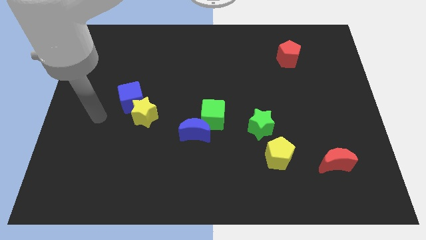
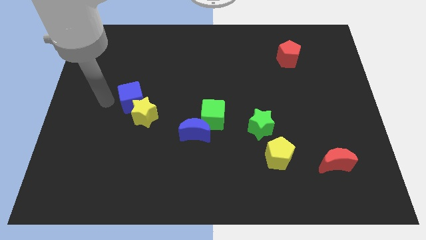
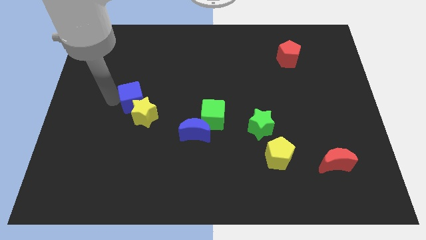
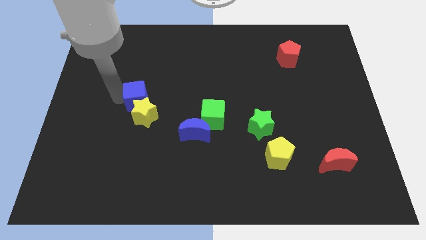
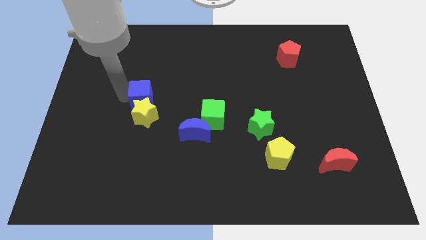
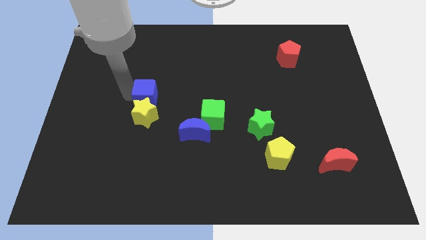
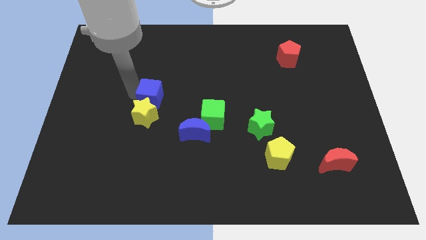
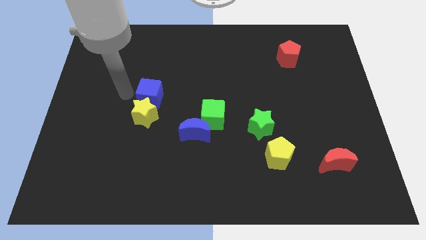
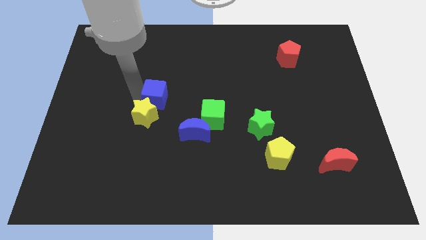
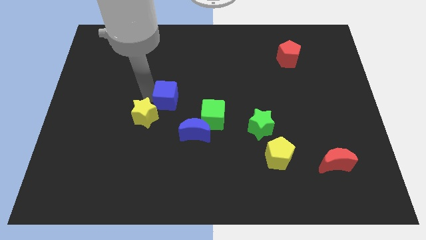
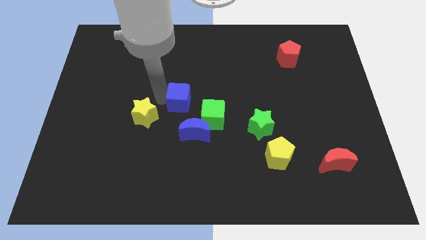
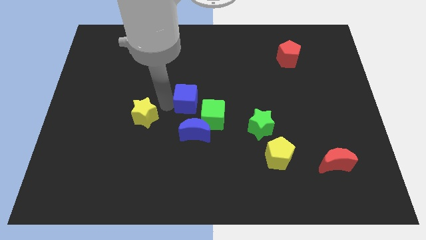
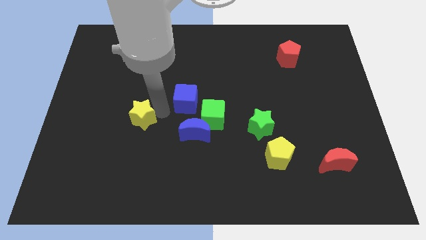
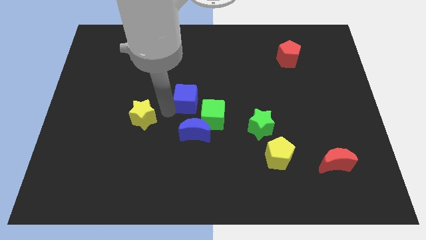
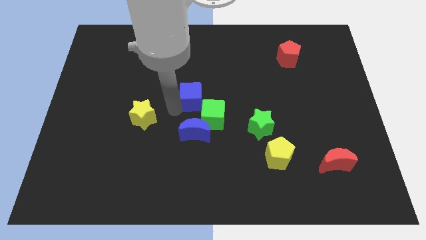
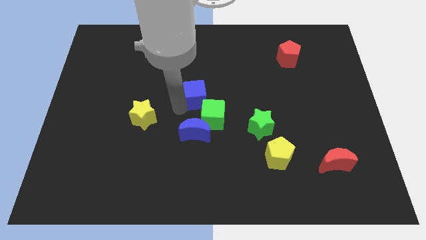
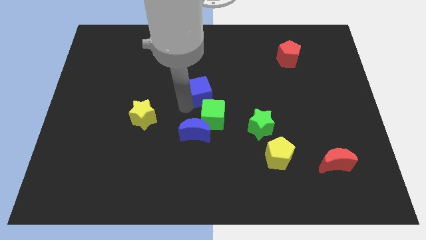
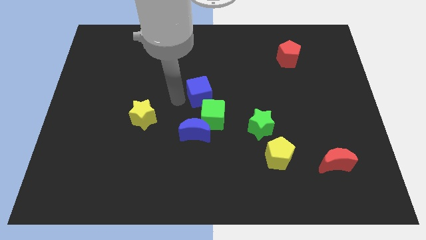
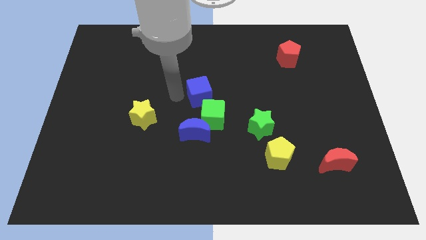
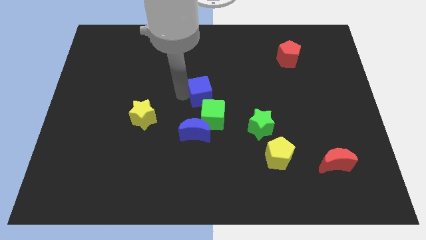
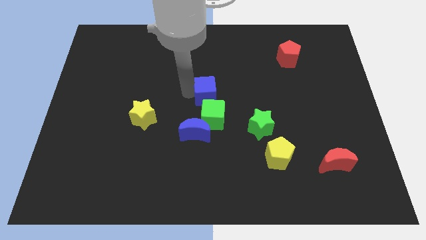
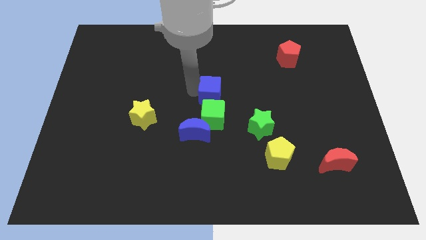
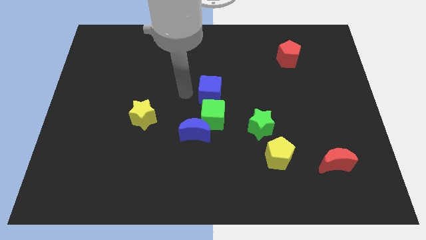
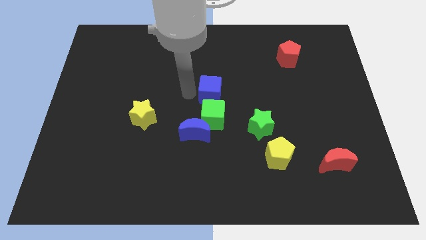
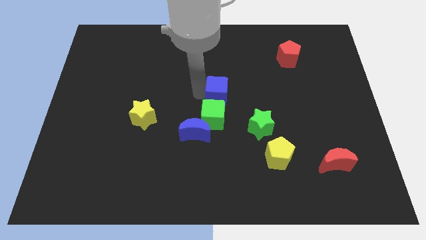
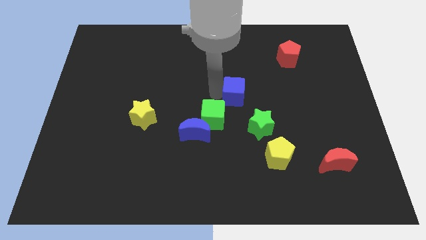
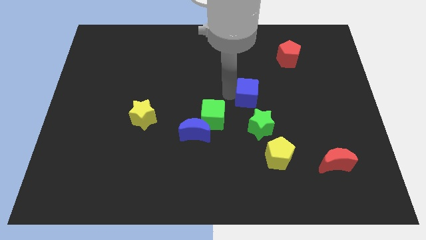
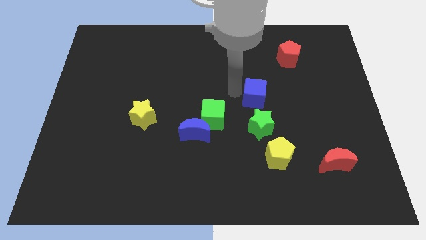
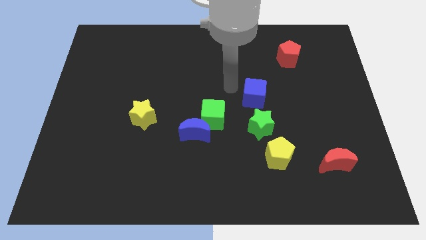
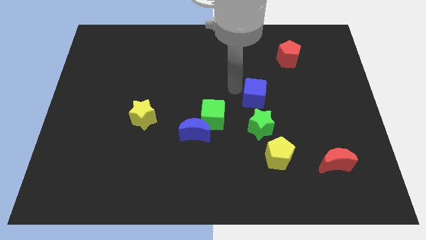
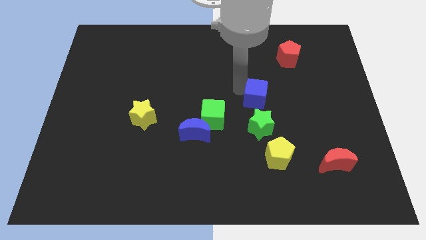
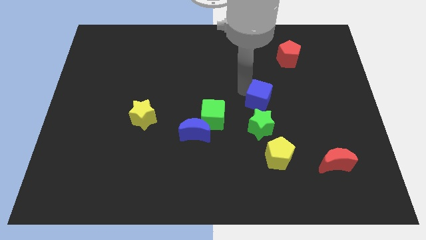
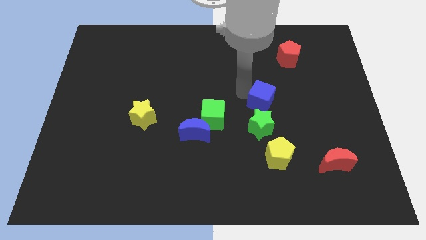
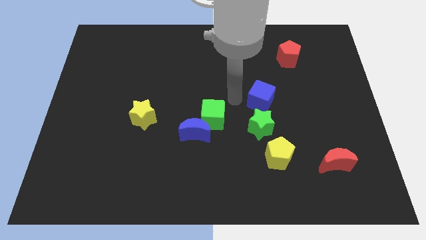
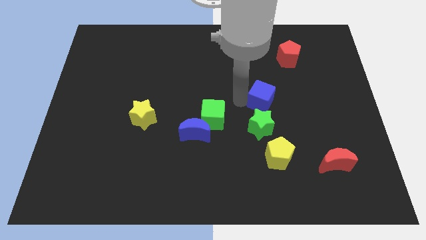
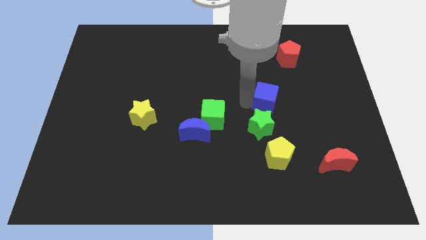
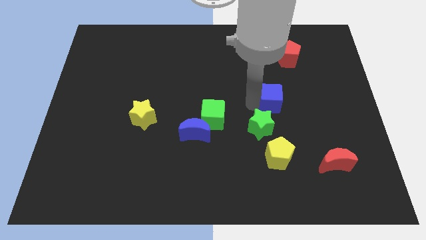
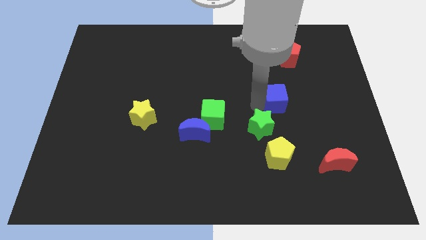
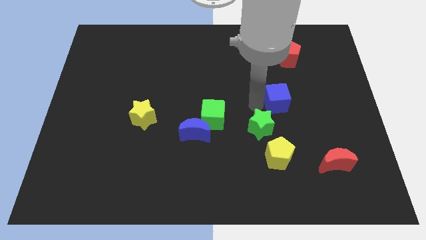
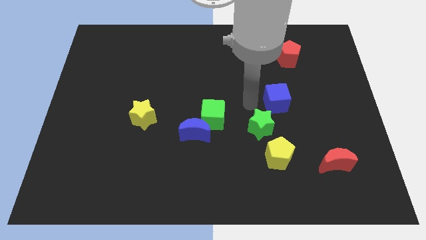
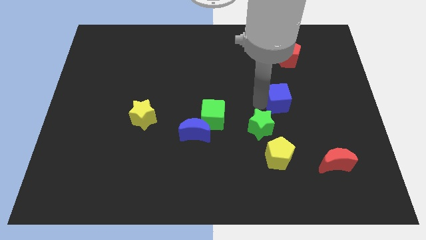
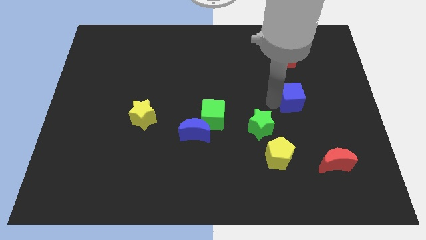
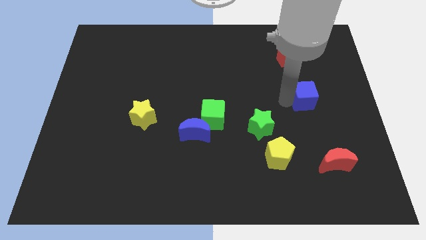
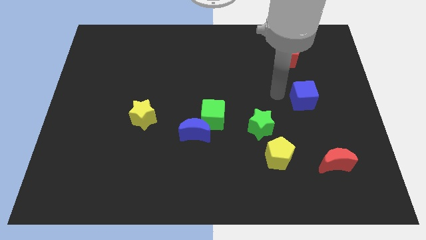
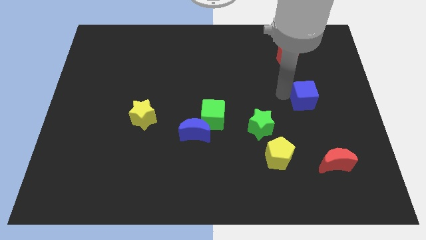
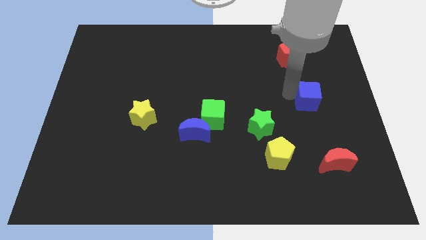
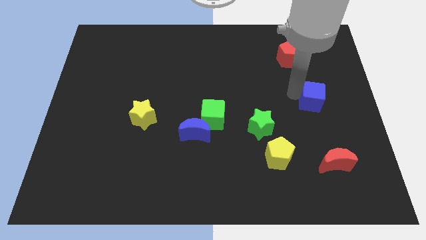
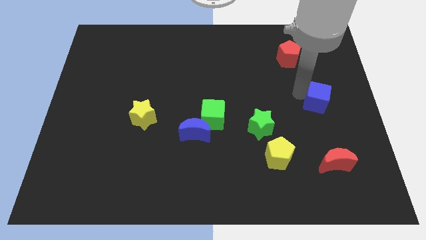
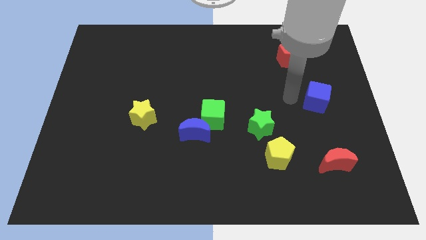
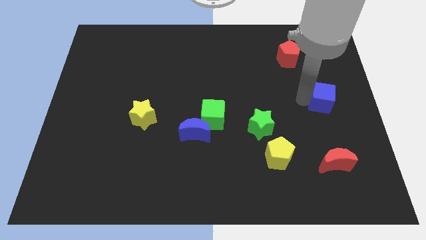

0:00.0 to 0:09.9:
slide the blue cube to the right side

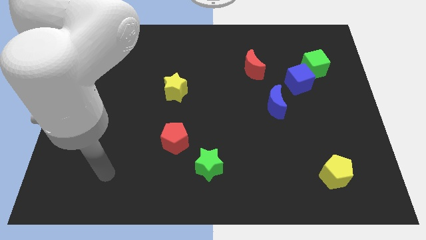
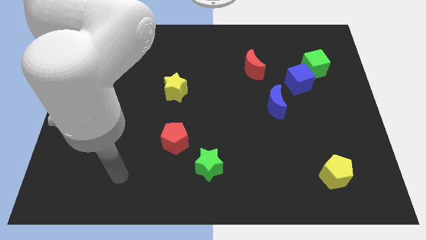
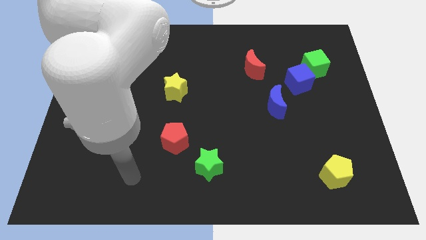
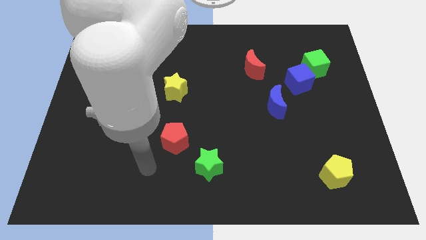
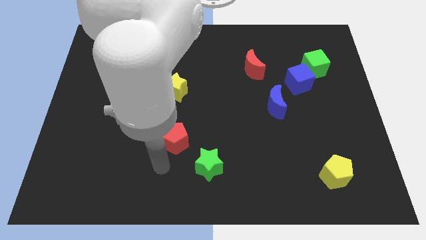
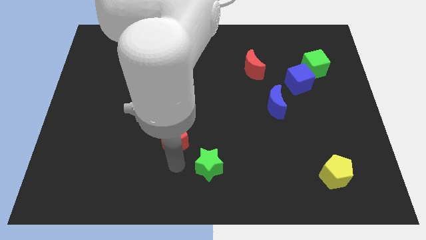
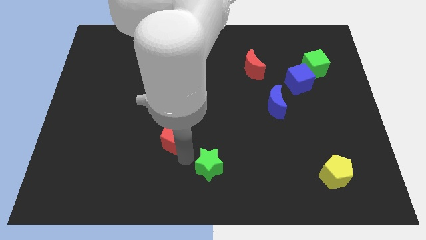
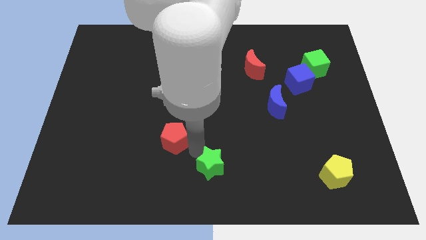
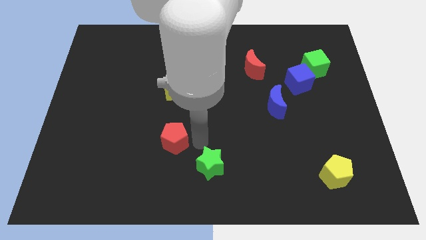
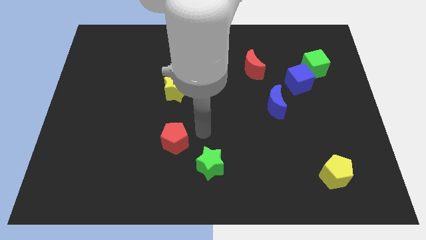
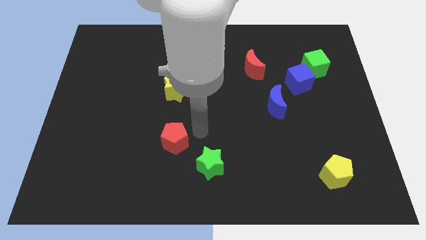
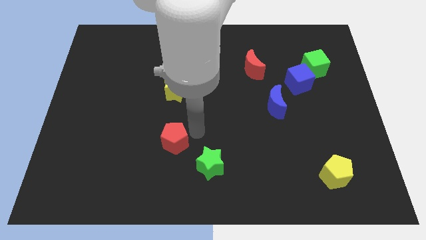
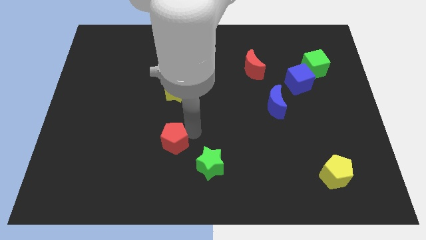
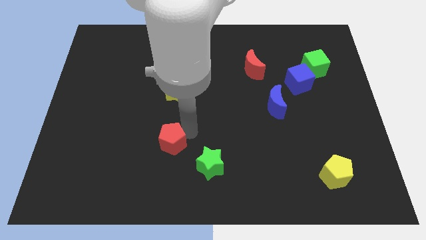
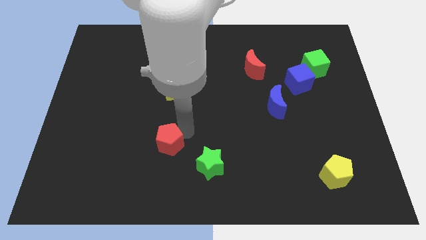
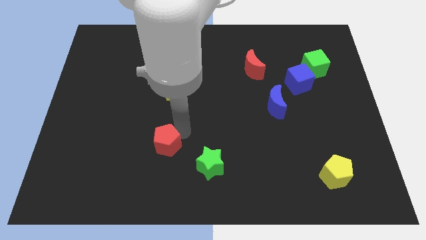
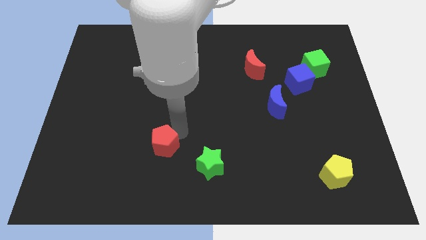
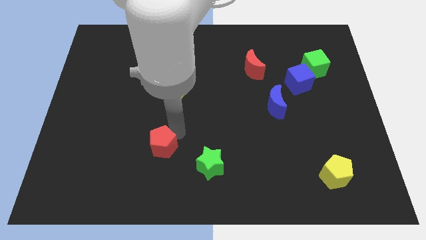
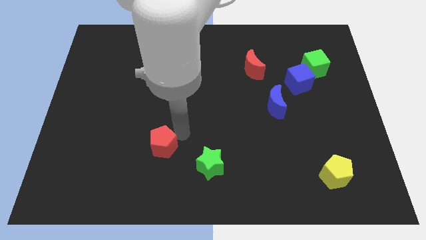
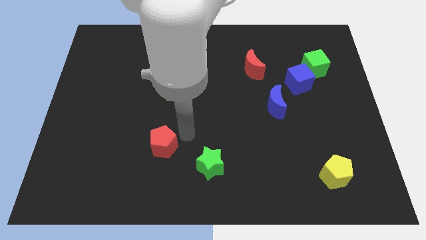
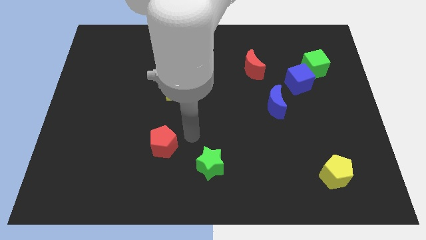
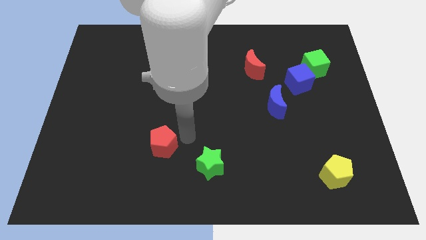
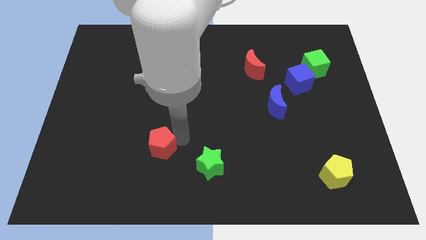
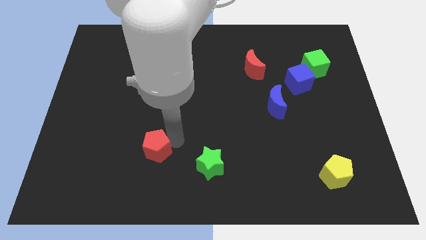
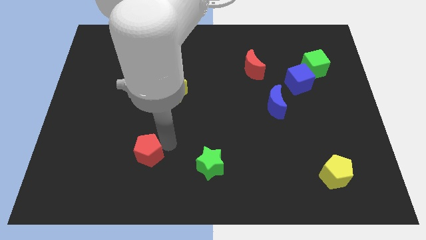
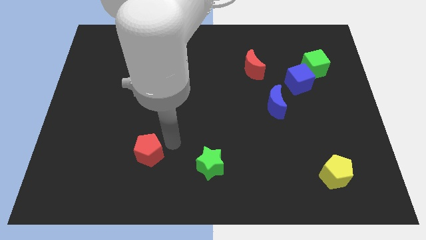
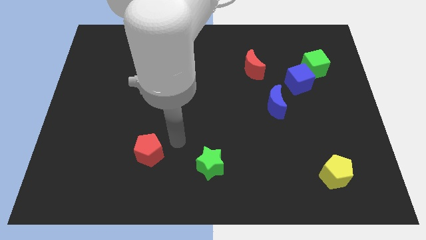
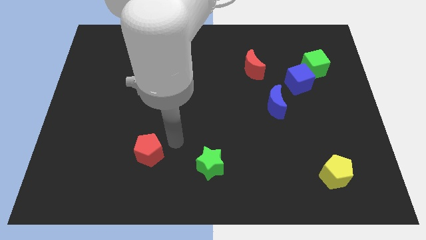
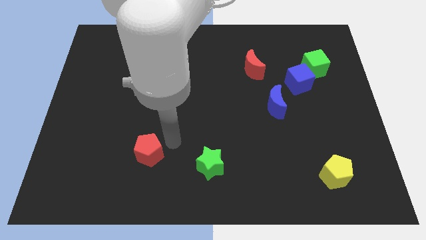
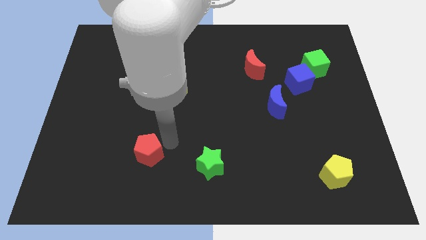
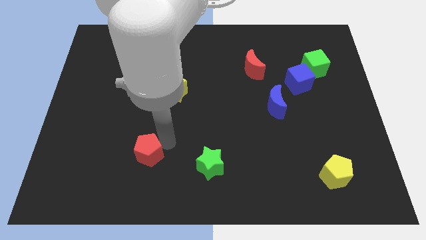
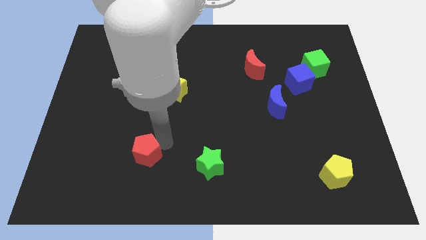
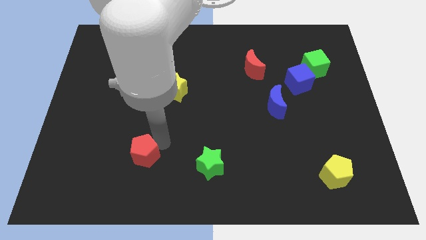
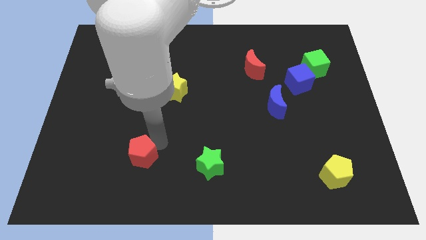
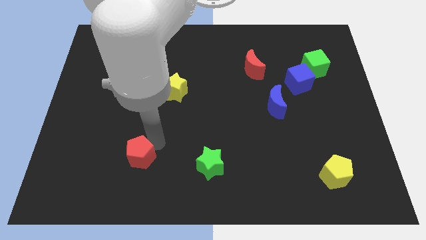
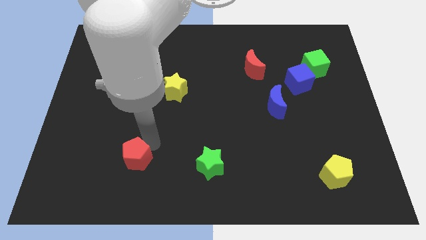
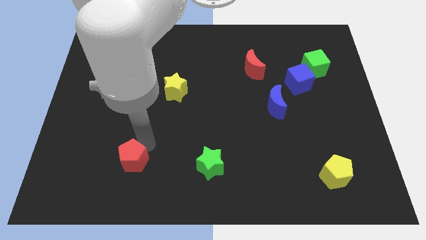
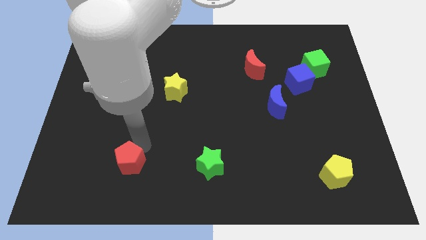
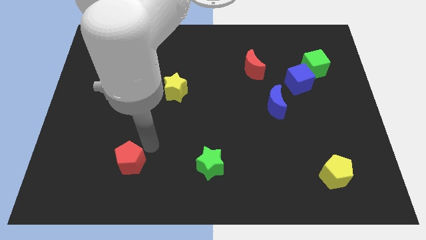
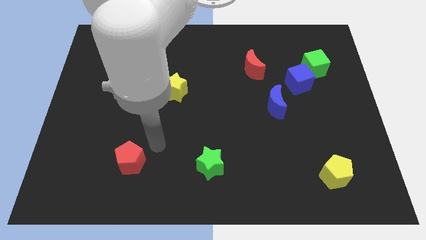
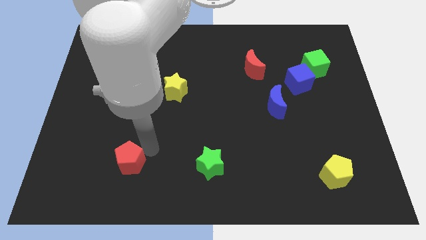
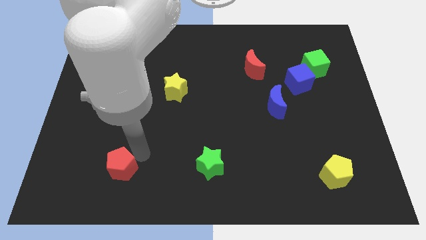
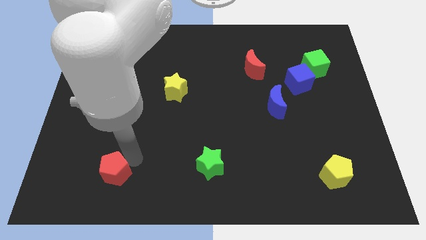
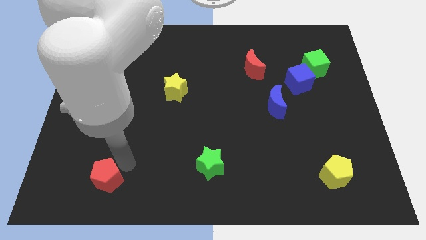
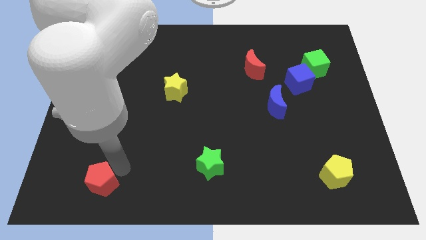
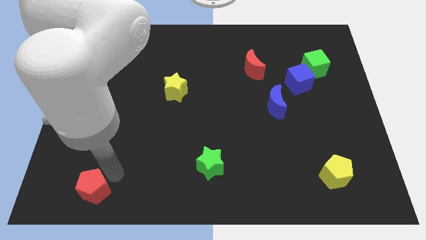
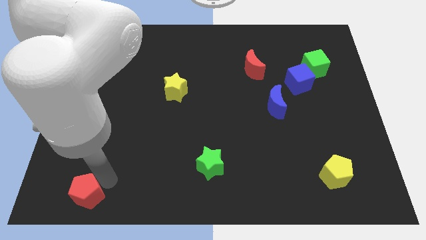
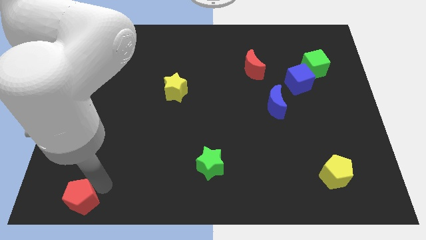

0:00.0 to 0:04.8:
push the red pentagon to the bottom left corner
